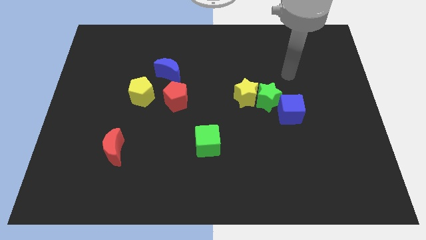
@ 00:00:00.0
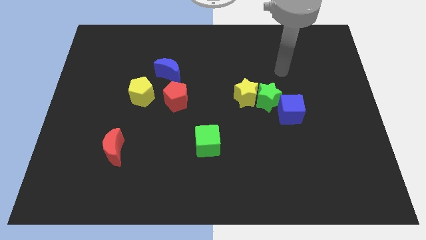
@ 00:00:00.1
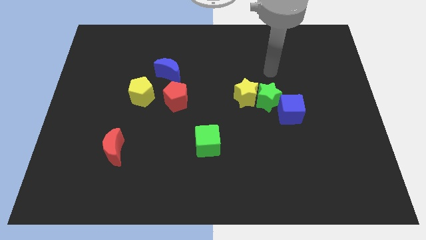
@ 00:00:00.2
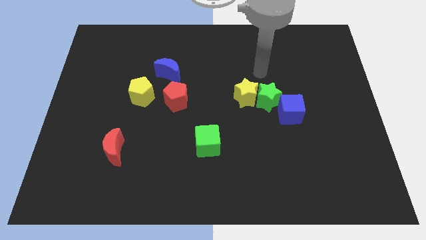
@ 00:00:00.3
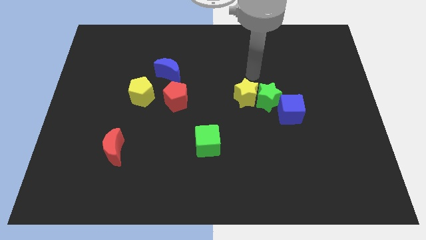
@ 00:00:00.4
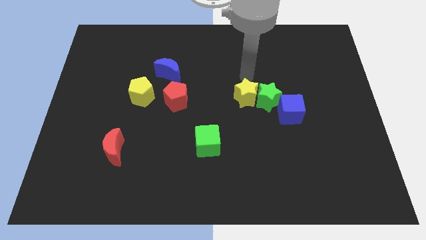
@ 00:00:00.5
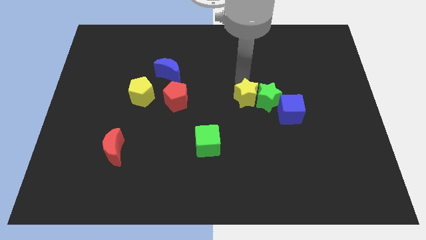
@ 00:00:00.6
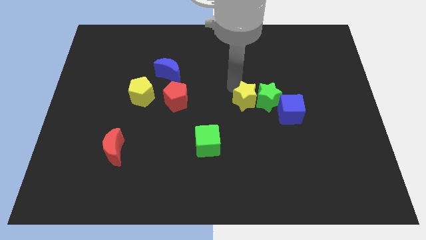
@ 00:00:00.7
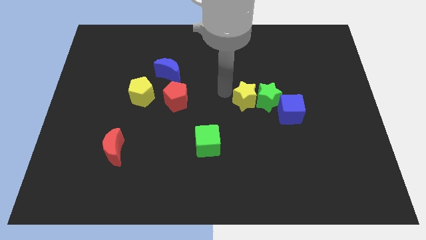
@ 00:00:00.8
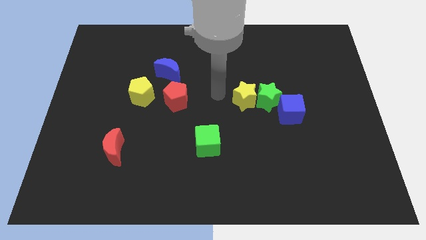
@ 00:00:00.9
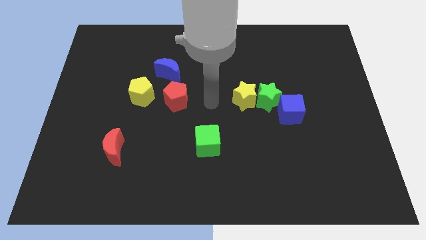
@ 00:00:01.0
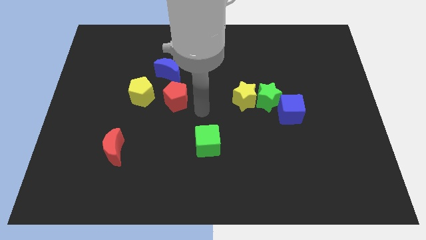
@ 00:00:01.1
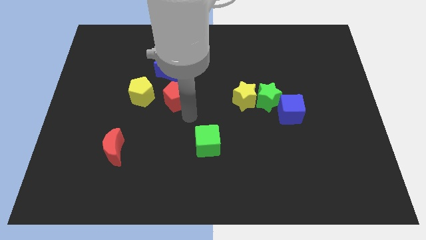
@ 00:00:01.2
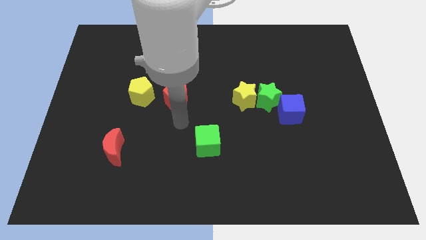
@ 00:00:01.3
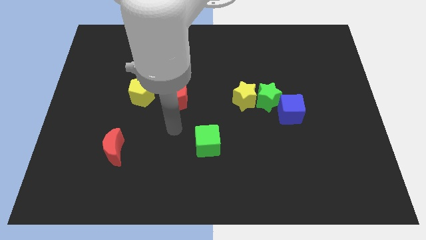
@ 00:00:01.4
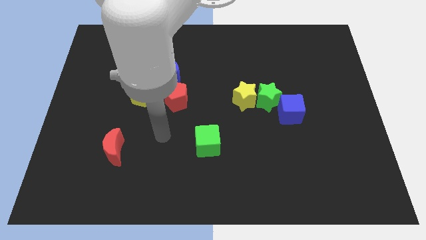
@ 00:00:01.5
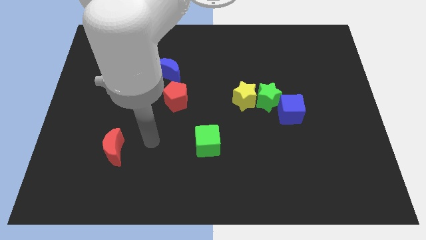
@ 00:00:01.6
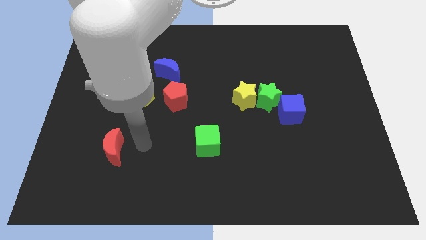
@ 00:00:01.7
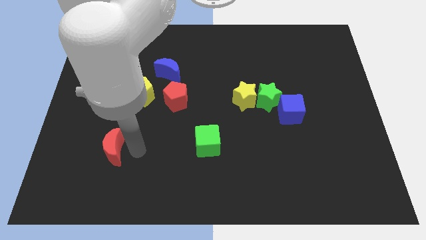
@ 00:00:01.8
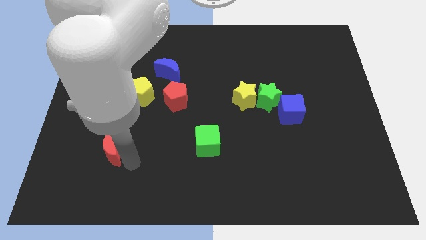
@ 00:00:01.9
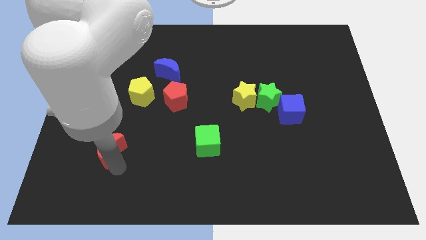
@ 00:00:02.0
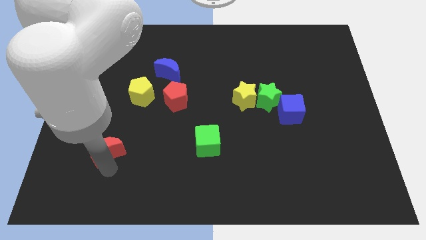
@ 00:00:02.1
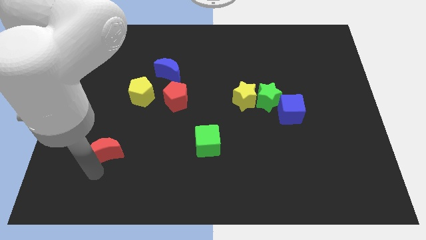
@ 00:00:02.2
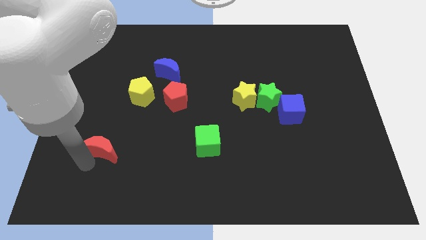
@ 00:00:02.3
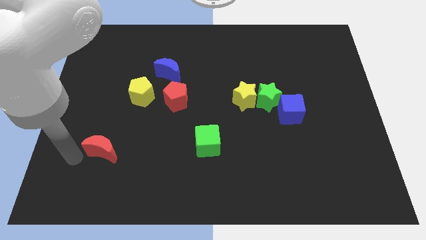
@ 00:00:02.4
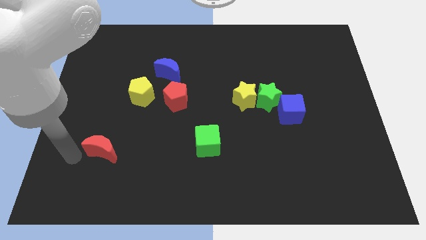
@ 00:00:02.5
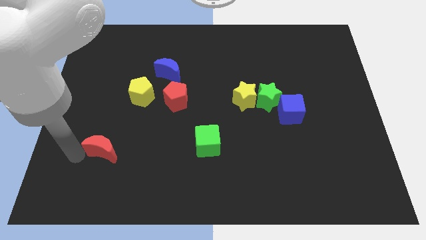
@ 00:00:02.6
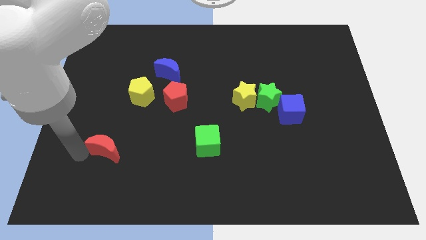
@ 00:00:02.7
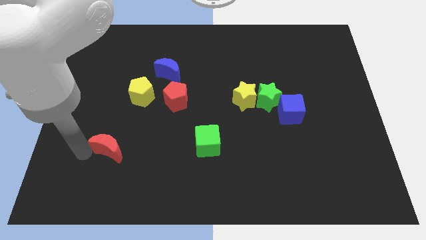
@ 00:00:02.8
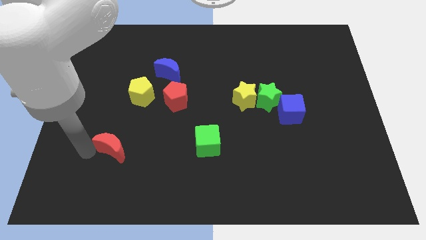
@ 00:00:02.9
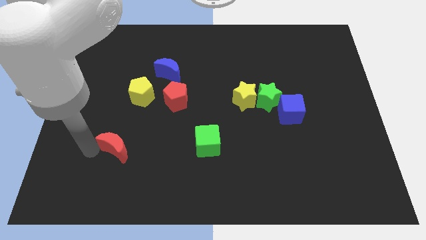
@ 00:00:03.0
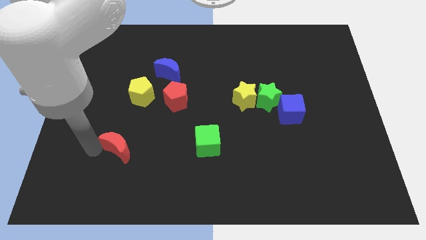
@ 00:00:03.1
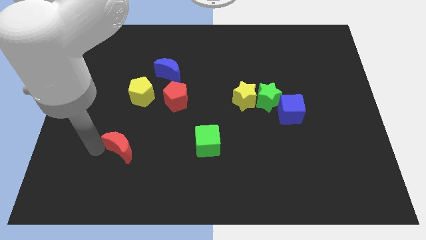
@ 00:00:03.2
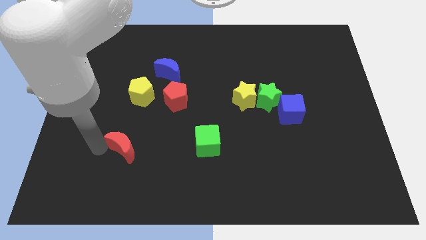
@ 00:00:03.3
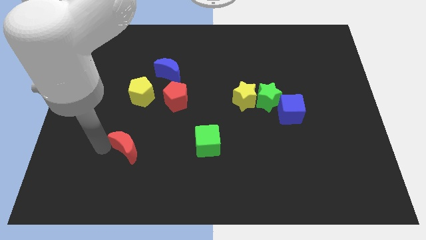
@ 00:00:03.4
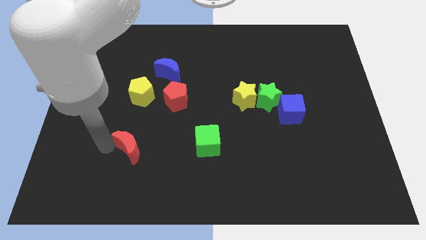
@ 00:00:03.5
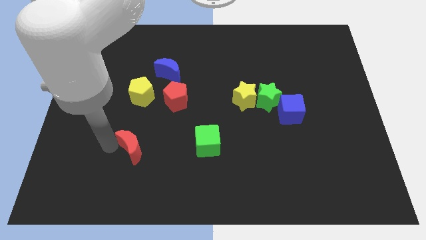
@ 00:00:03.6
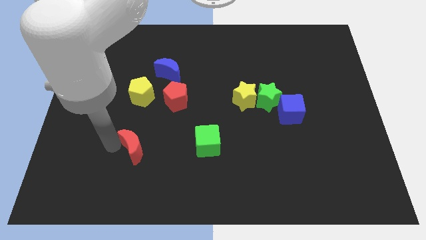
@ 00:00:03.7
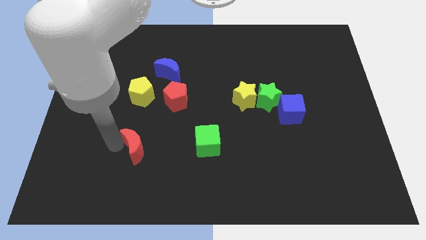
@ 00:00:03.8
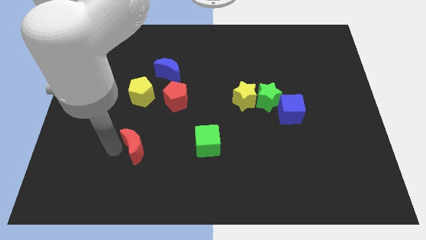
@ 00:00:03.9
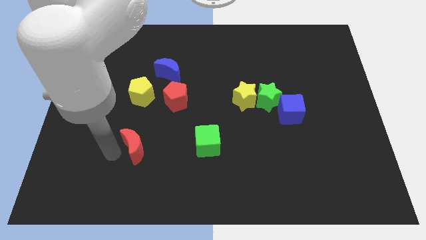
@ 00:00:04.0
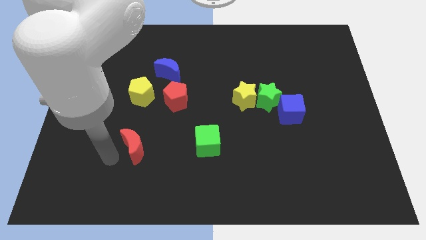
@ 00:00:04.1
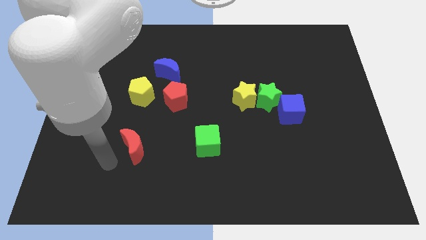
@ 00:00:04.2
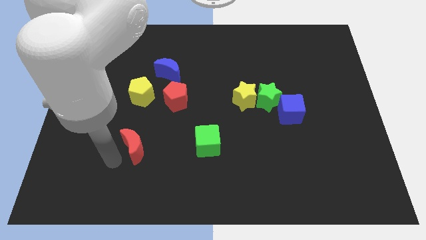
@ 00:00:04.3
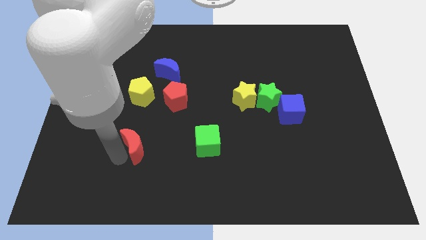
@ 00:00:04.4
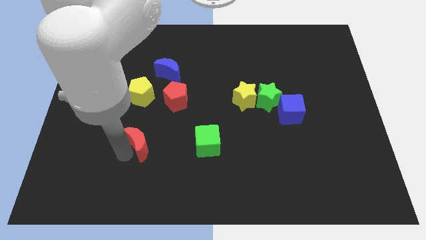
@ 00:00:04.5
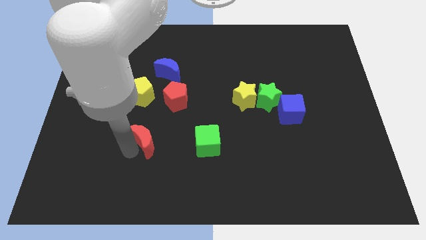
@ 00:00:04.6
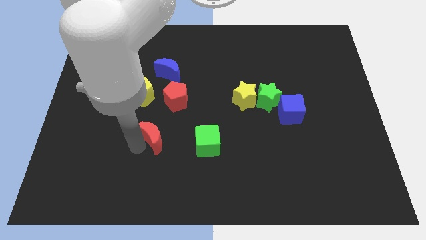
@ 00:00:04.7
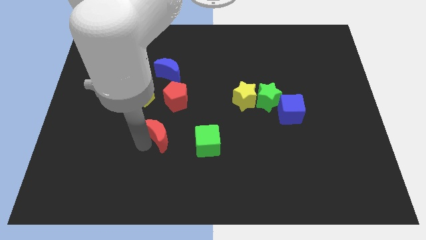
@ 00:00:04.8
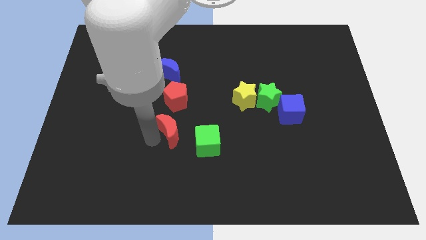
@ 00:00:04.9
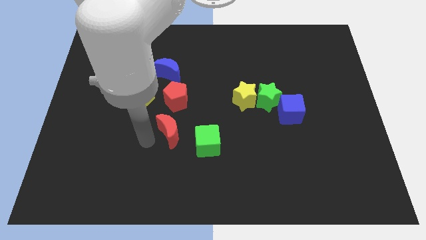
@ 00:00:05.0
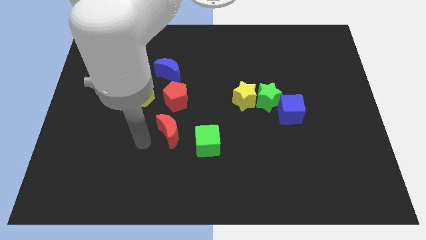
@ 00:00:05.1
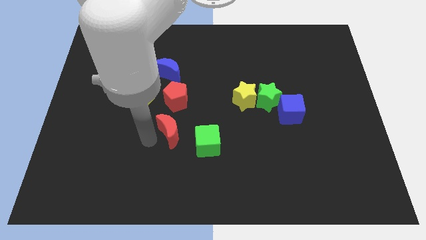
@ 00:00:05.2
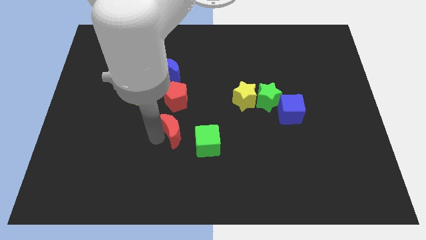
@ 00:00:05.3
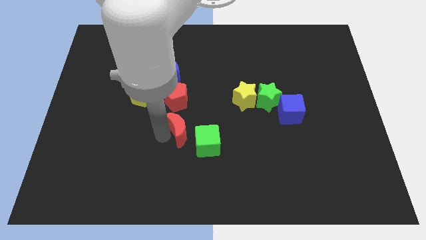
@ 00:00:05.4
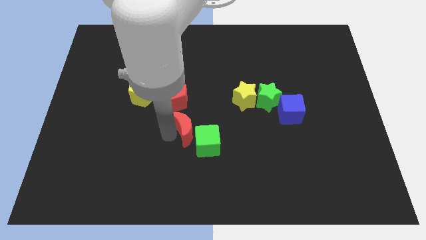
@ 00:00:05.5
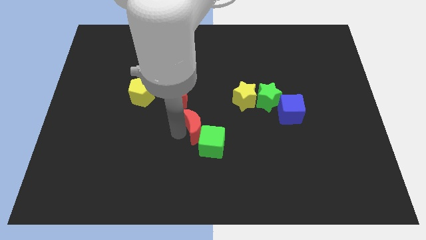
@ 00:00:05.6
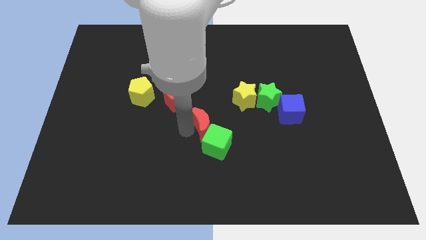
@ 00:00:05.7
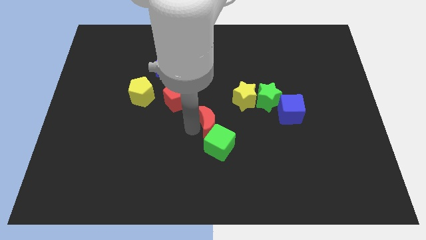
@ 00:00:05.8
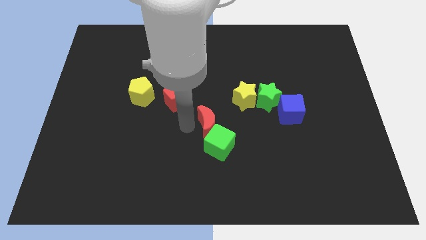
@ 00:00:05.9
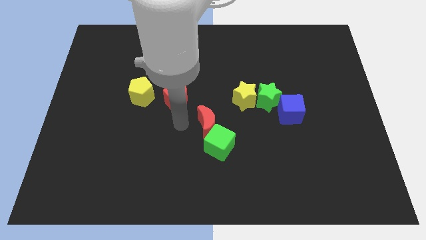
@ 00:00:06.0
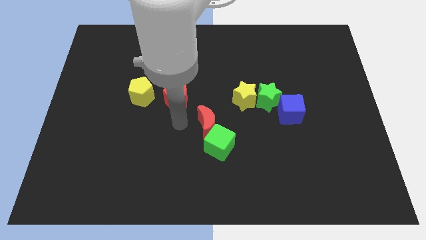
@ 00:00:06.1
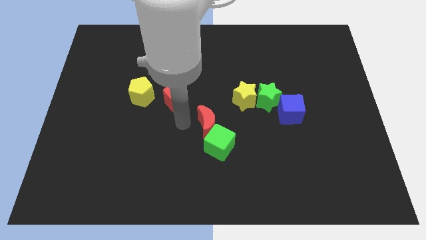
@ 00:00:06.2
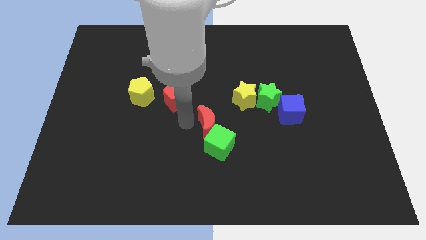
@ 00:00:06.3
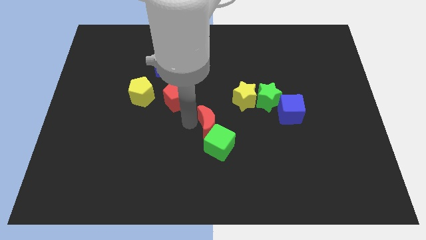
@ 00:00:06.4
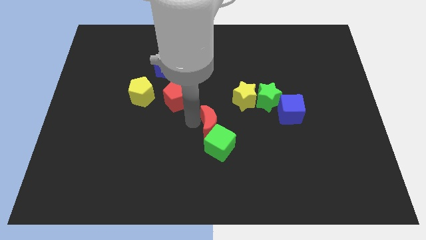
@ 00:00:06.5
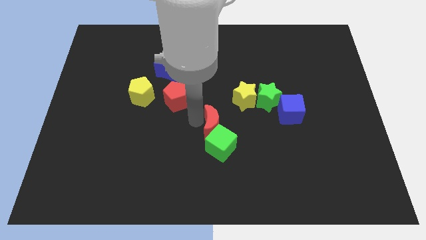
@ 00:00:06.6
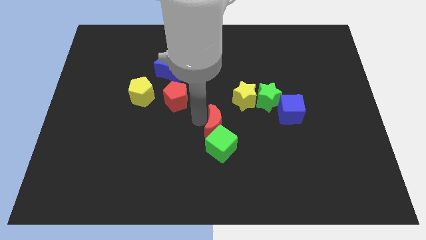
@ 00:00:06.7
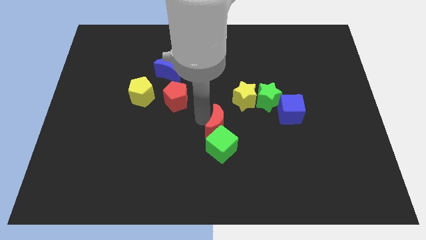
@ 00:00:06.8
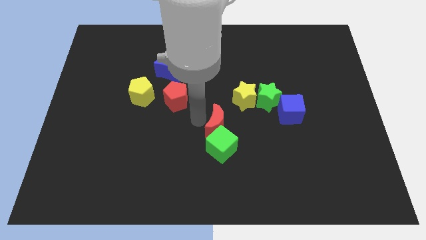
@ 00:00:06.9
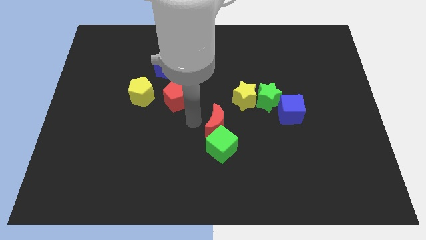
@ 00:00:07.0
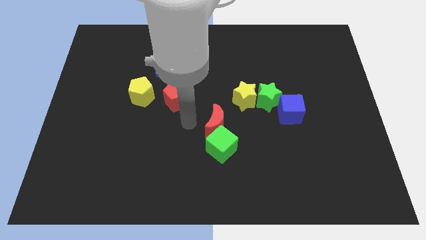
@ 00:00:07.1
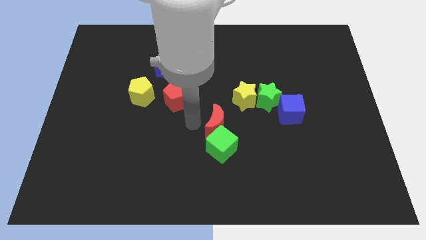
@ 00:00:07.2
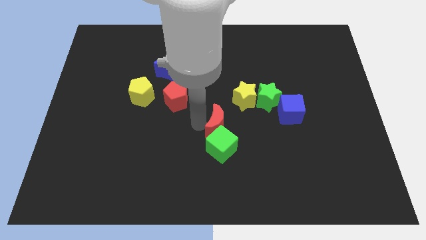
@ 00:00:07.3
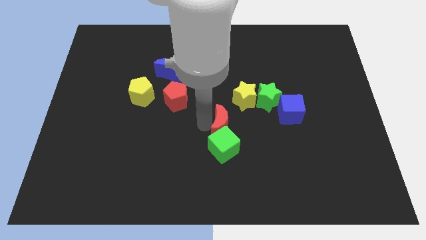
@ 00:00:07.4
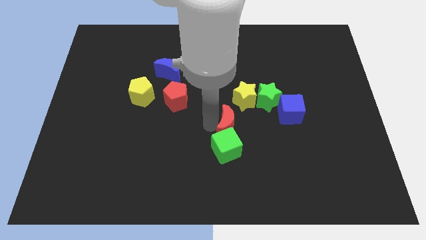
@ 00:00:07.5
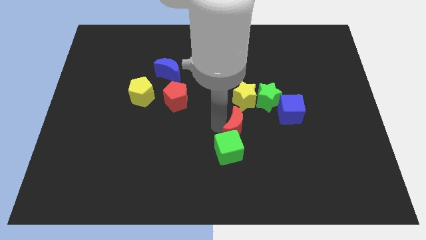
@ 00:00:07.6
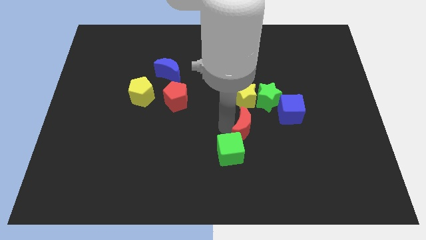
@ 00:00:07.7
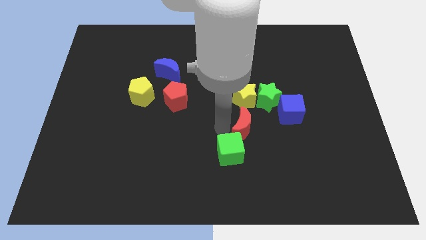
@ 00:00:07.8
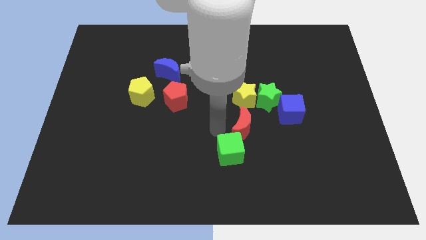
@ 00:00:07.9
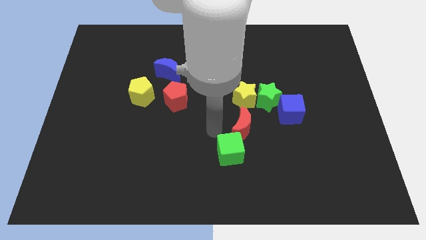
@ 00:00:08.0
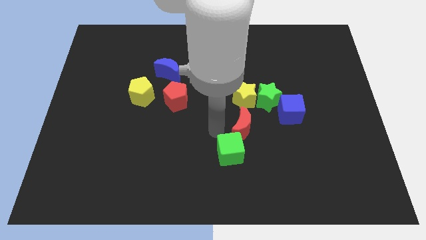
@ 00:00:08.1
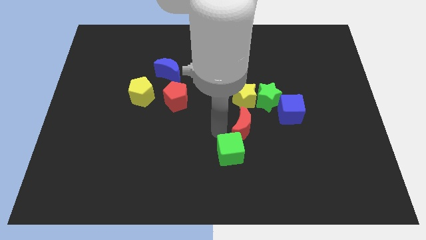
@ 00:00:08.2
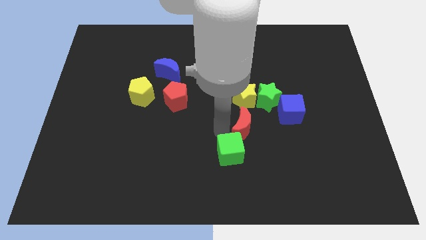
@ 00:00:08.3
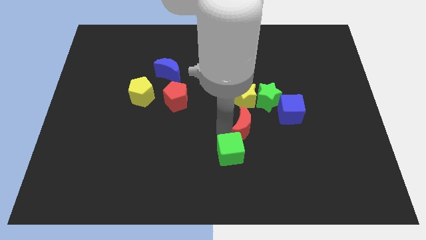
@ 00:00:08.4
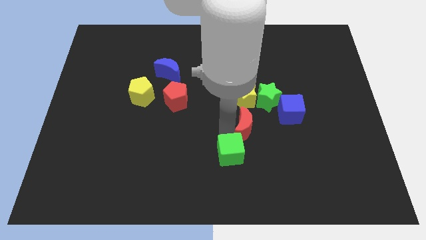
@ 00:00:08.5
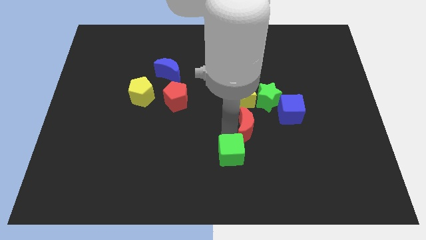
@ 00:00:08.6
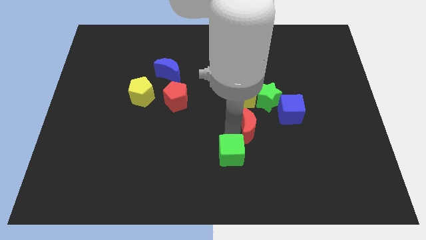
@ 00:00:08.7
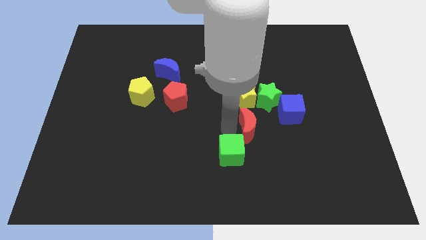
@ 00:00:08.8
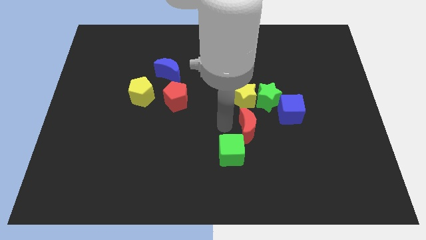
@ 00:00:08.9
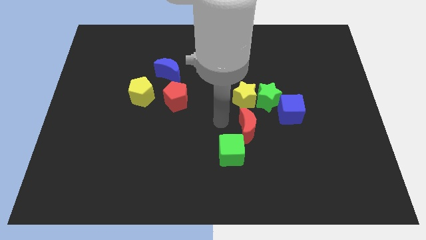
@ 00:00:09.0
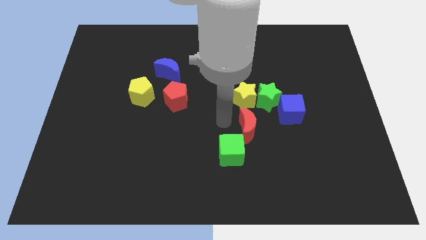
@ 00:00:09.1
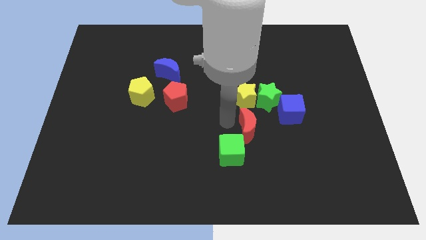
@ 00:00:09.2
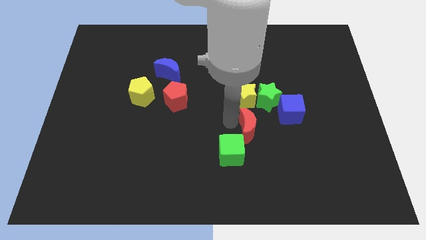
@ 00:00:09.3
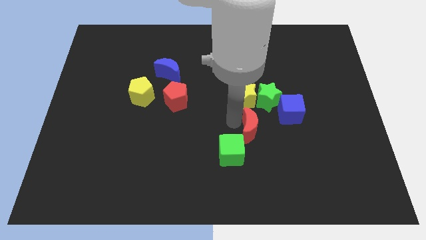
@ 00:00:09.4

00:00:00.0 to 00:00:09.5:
put the red moon to the bottom of the green star
